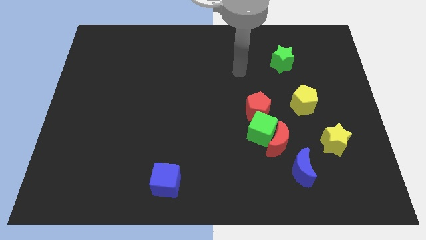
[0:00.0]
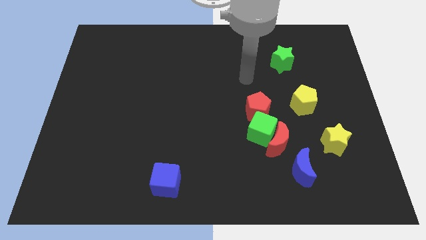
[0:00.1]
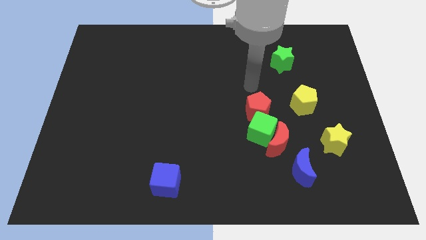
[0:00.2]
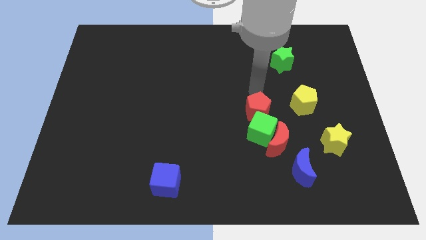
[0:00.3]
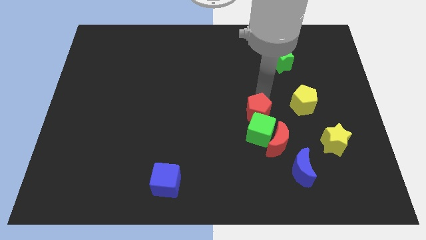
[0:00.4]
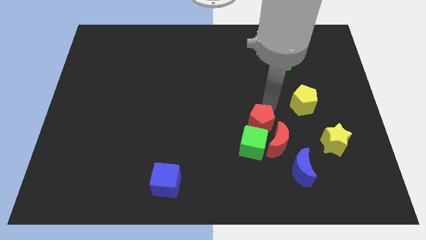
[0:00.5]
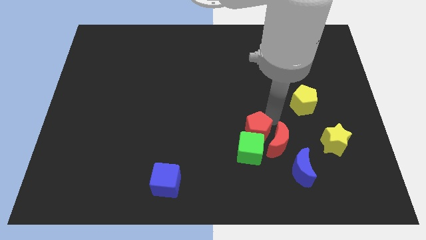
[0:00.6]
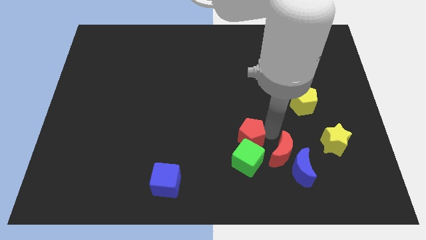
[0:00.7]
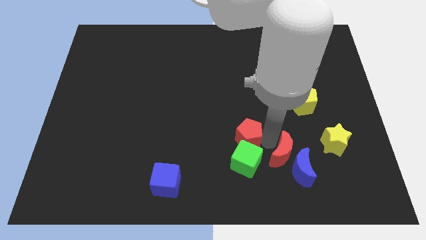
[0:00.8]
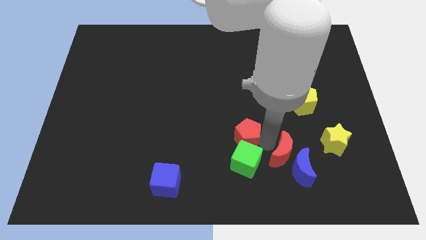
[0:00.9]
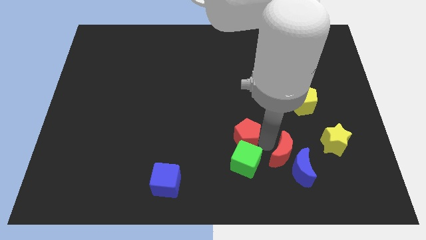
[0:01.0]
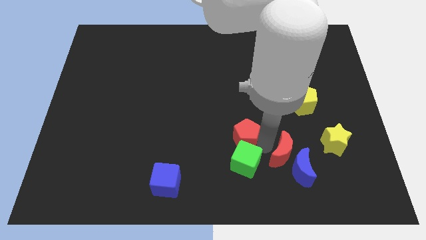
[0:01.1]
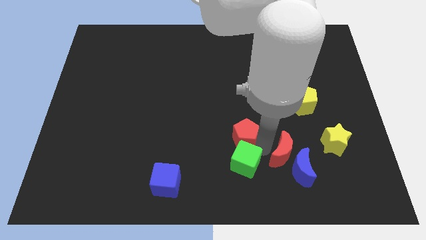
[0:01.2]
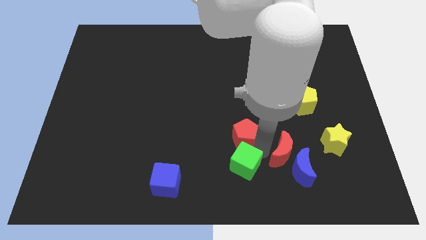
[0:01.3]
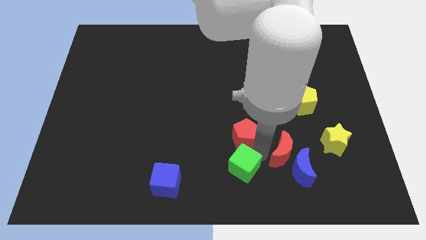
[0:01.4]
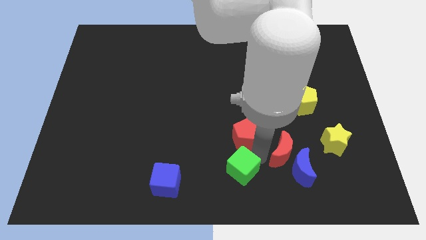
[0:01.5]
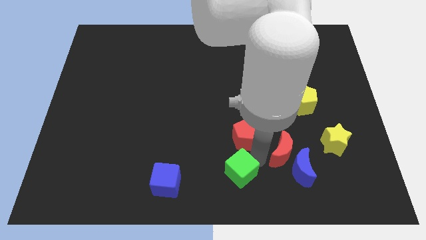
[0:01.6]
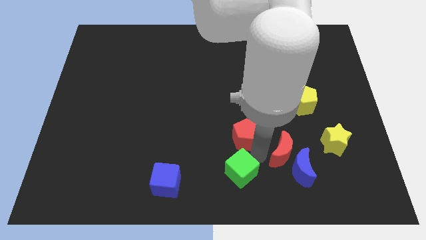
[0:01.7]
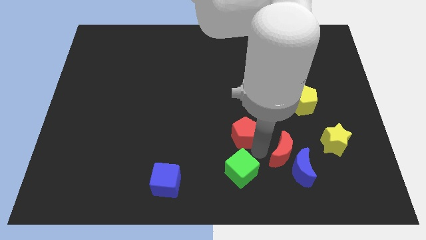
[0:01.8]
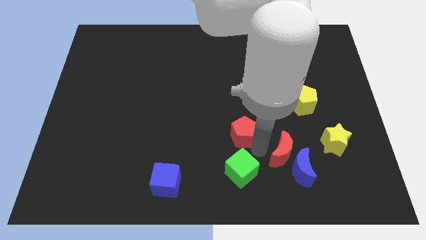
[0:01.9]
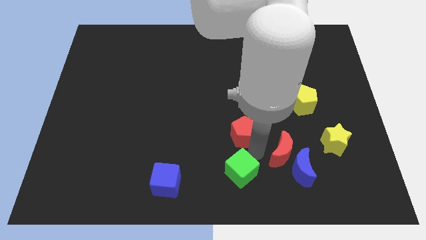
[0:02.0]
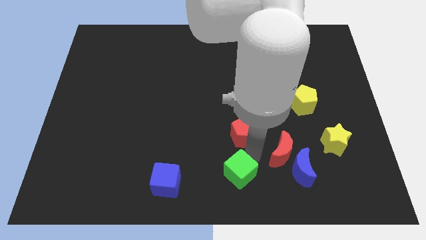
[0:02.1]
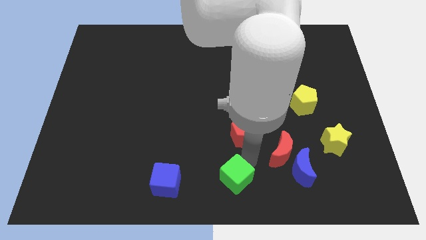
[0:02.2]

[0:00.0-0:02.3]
separate the green cube from the red moon and red pentagon

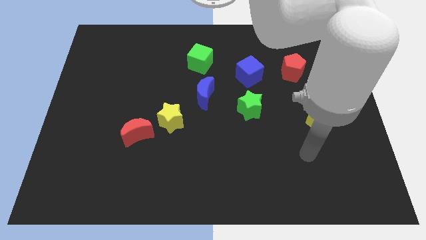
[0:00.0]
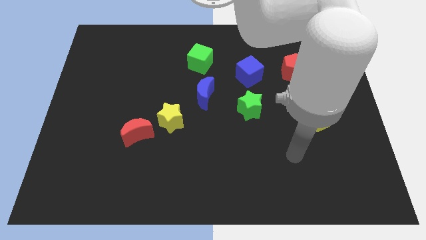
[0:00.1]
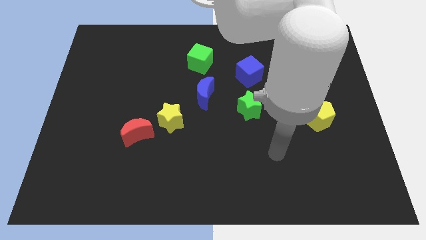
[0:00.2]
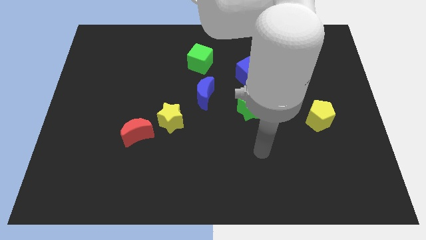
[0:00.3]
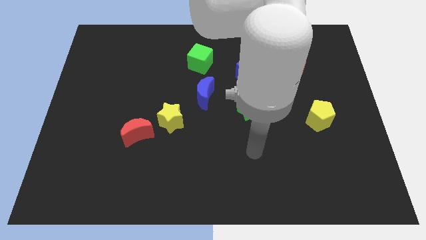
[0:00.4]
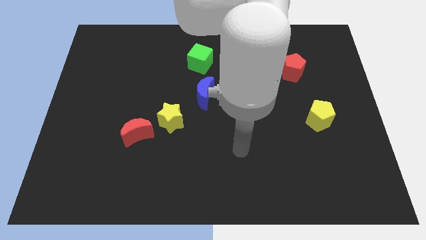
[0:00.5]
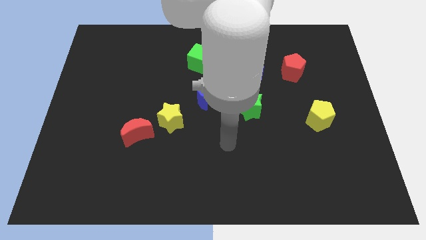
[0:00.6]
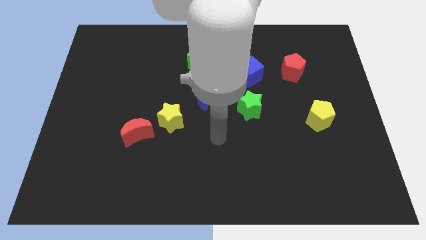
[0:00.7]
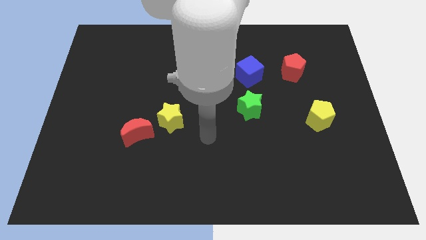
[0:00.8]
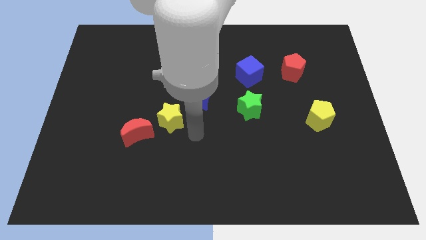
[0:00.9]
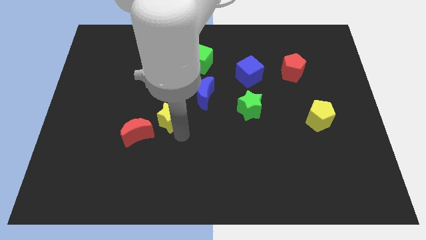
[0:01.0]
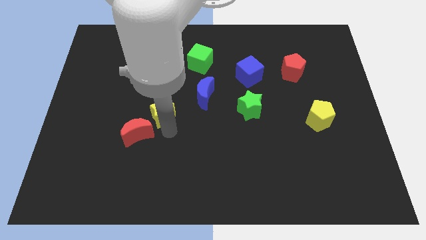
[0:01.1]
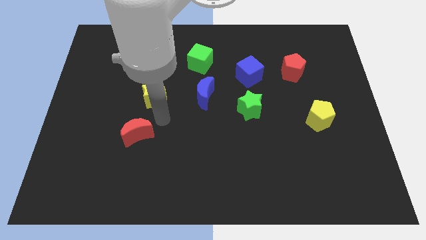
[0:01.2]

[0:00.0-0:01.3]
move the red moon away from the yellow star

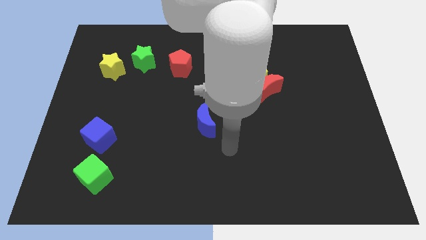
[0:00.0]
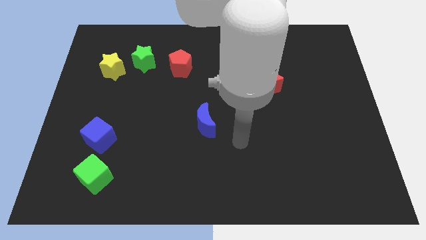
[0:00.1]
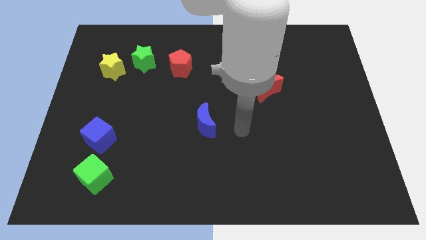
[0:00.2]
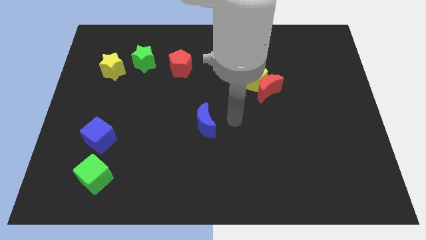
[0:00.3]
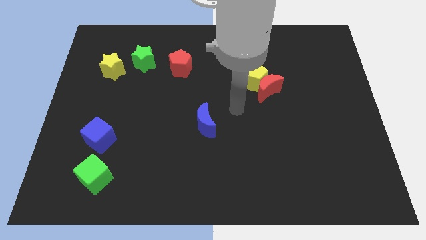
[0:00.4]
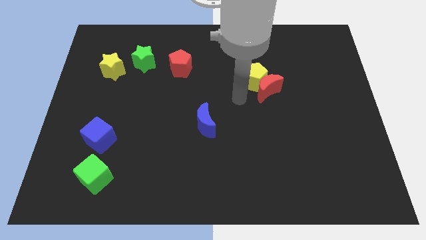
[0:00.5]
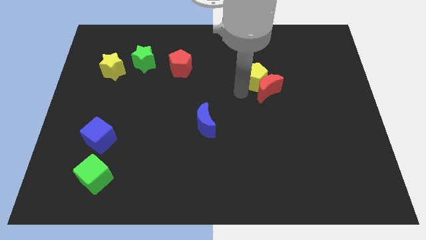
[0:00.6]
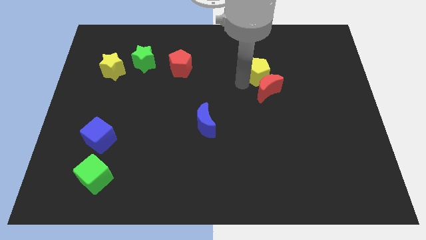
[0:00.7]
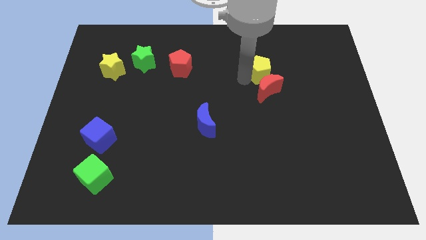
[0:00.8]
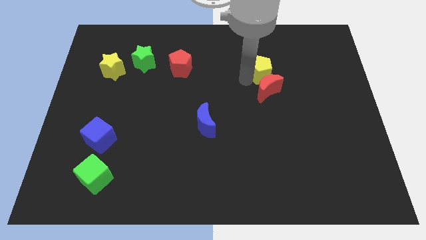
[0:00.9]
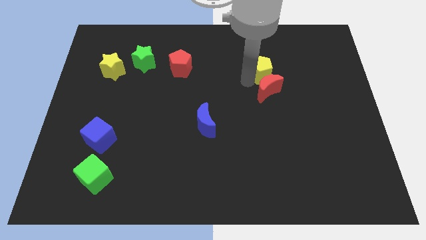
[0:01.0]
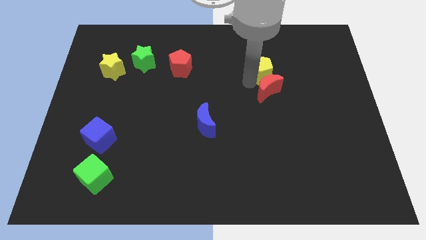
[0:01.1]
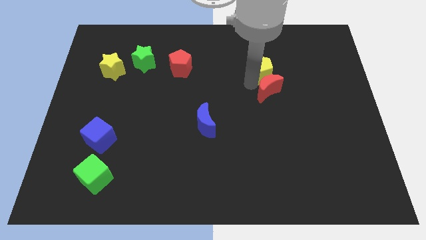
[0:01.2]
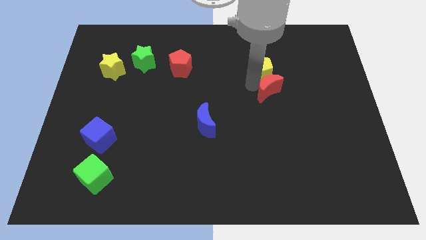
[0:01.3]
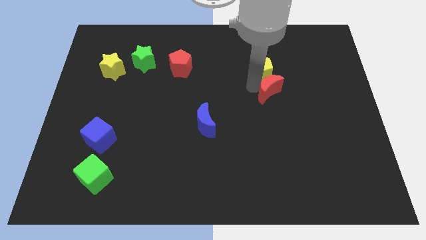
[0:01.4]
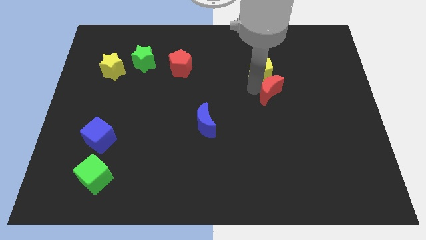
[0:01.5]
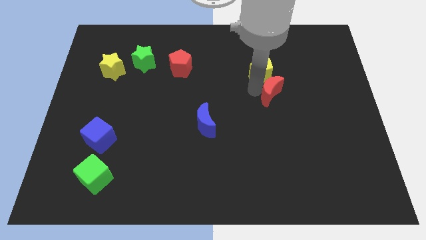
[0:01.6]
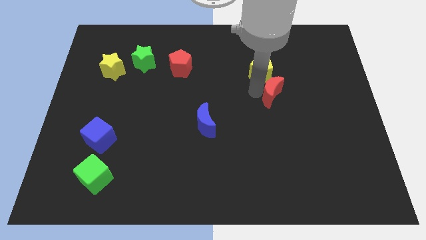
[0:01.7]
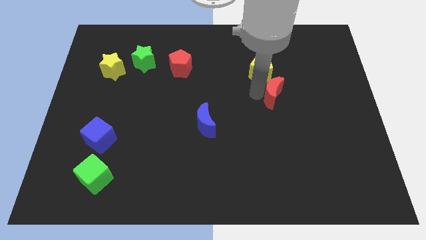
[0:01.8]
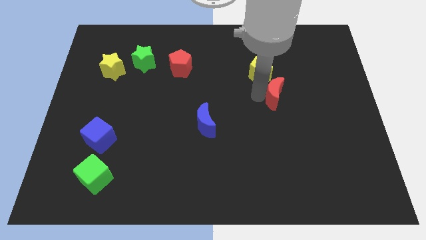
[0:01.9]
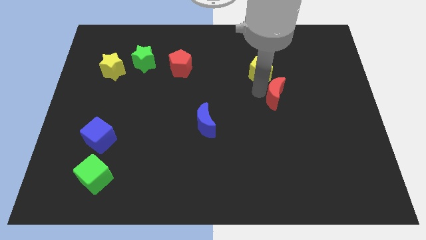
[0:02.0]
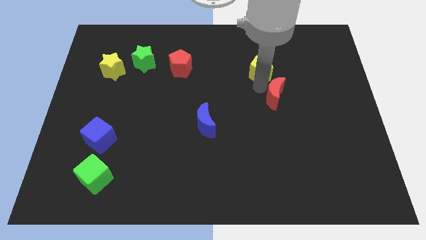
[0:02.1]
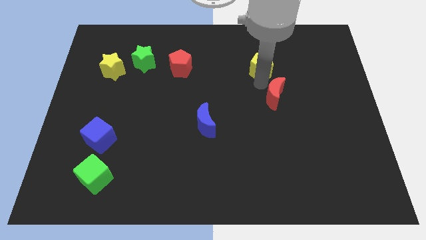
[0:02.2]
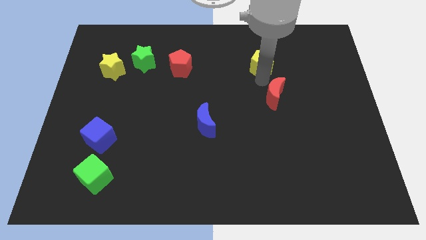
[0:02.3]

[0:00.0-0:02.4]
separate the red moon from the yellow pentagon

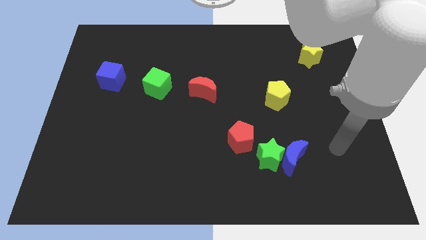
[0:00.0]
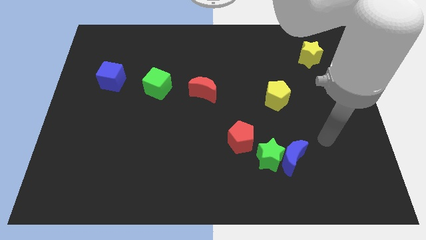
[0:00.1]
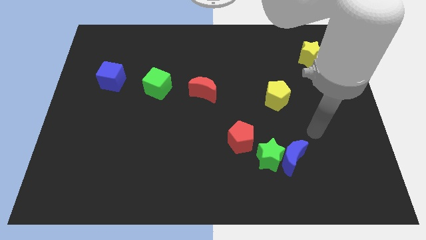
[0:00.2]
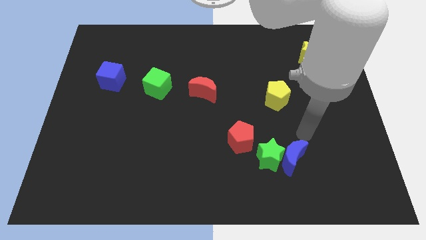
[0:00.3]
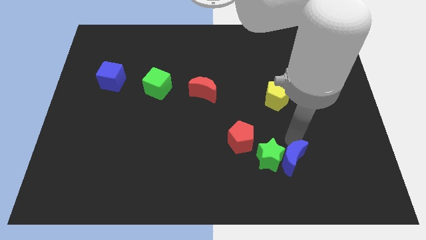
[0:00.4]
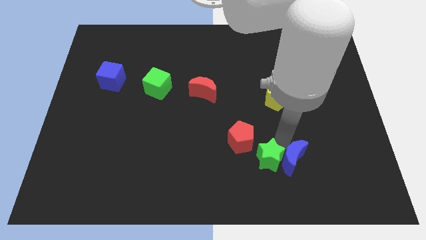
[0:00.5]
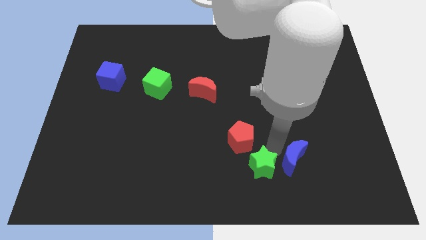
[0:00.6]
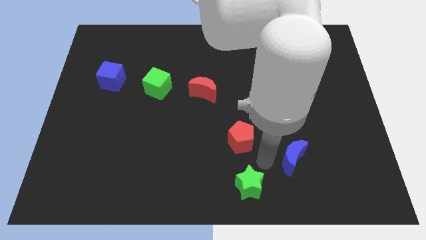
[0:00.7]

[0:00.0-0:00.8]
pull the blue moon apart from the green star

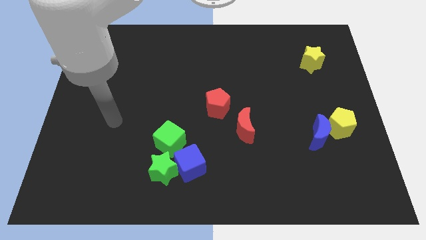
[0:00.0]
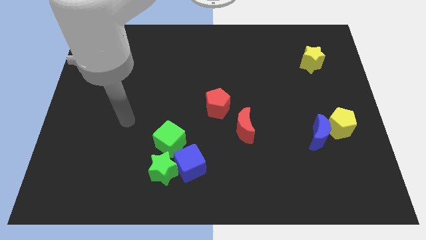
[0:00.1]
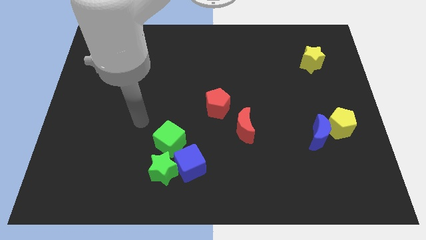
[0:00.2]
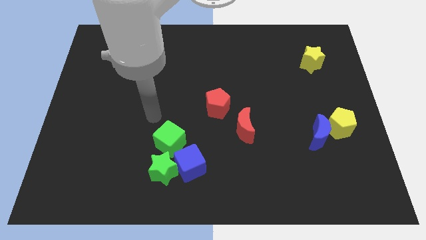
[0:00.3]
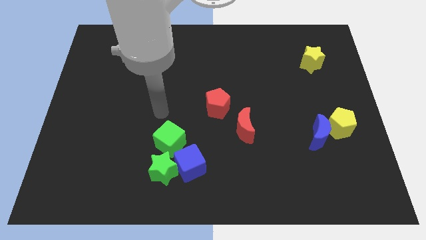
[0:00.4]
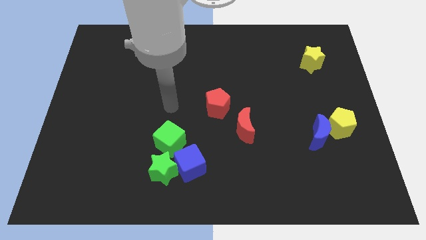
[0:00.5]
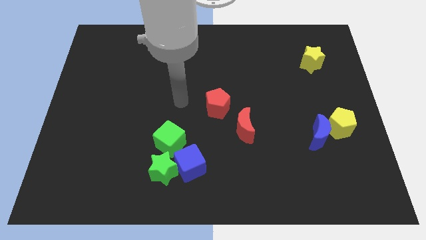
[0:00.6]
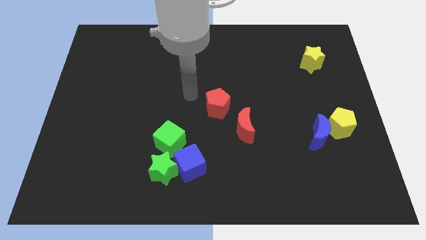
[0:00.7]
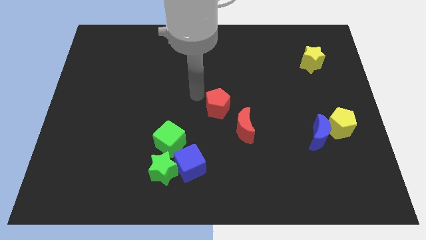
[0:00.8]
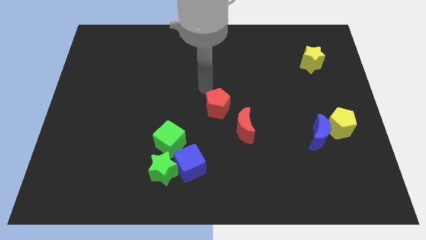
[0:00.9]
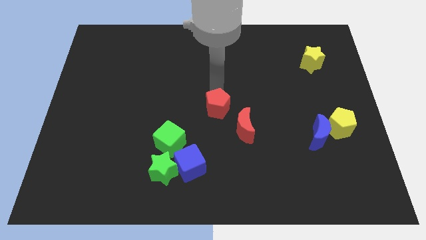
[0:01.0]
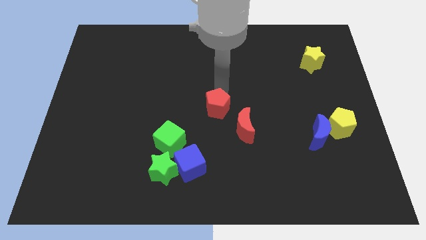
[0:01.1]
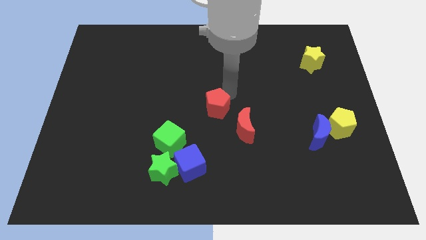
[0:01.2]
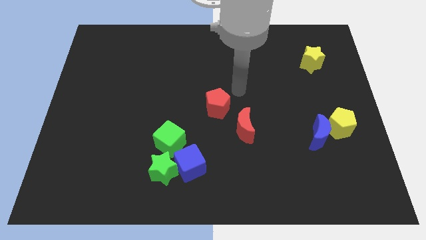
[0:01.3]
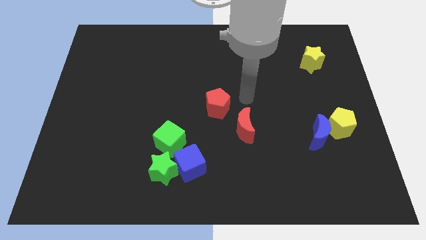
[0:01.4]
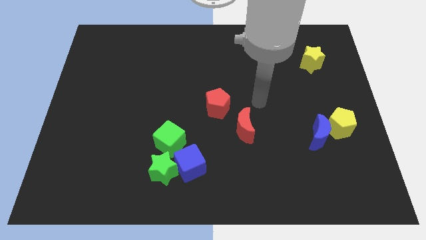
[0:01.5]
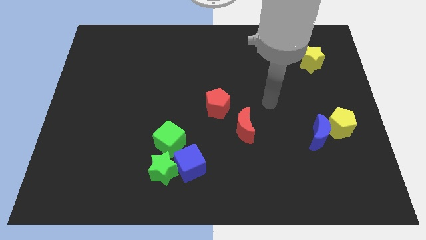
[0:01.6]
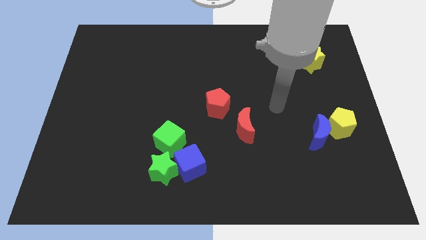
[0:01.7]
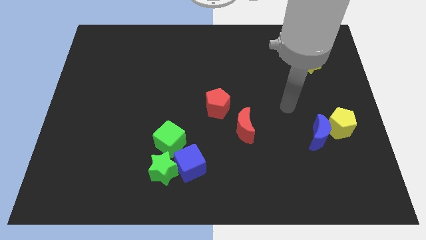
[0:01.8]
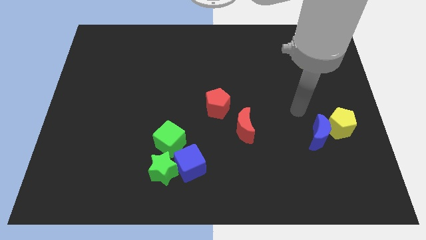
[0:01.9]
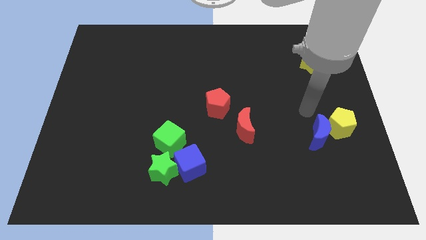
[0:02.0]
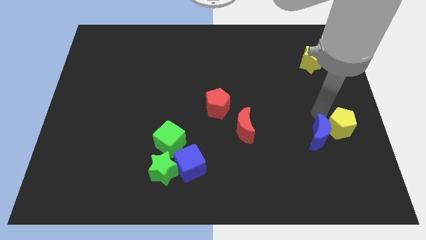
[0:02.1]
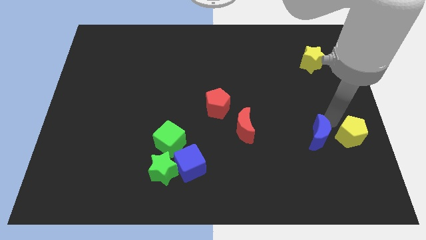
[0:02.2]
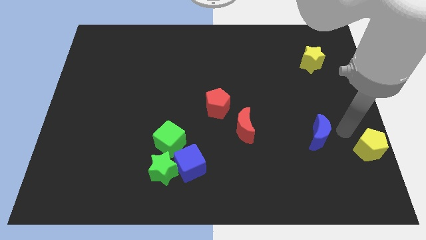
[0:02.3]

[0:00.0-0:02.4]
pull the blue moon apart from the yellow pentagon
